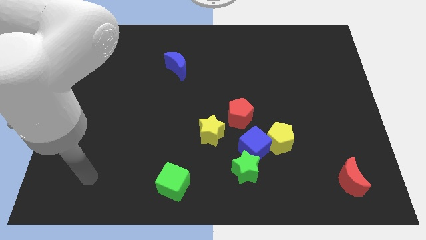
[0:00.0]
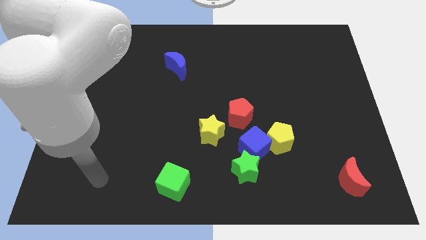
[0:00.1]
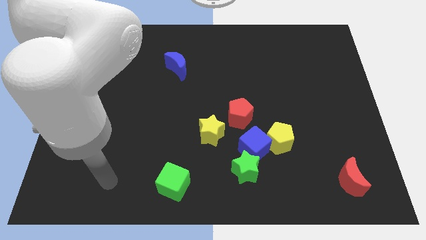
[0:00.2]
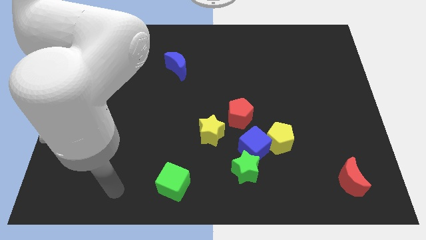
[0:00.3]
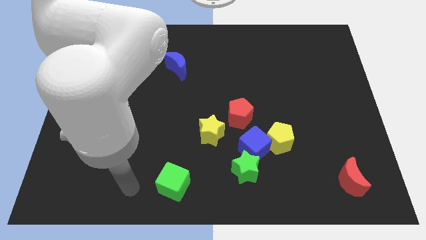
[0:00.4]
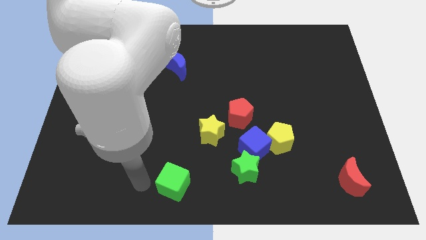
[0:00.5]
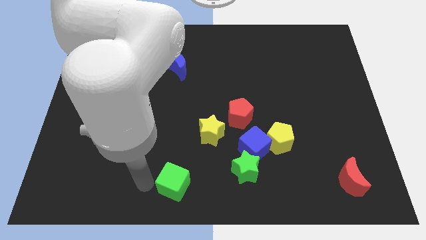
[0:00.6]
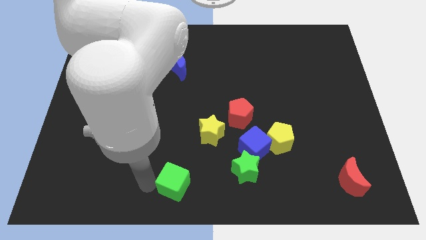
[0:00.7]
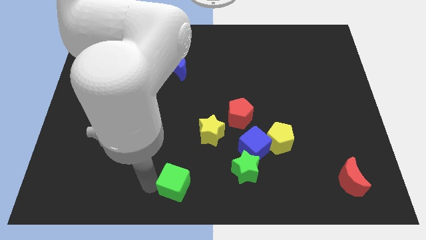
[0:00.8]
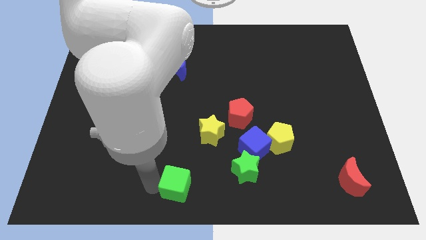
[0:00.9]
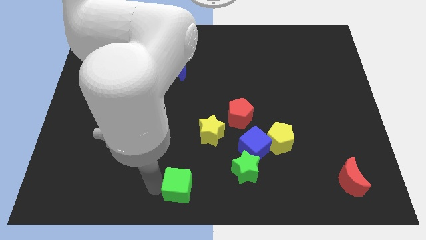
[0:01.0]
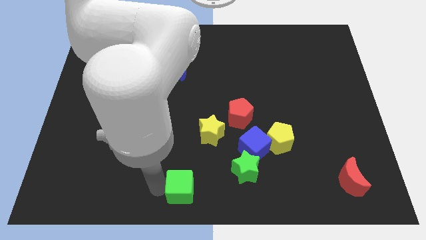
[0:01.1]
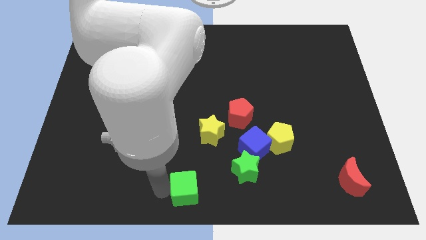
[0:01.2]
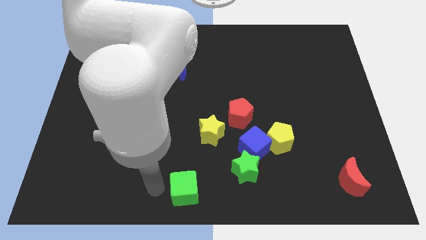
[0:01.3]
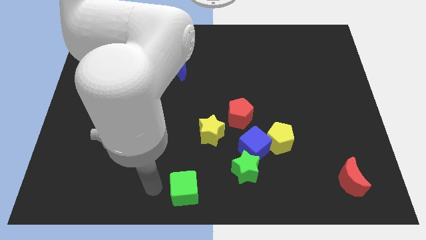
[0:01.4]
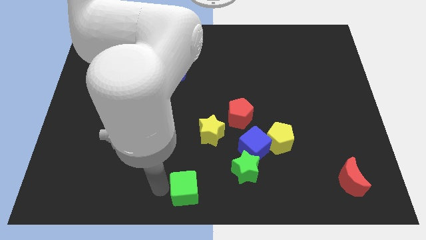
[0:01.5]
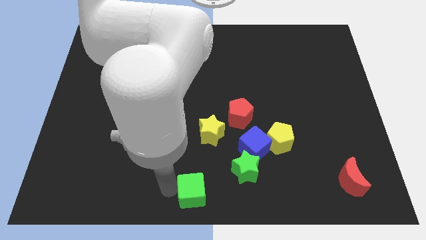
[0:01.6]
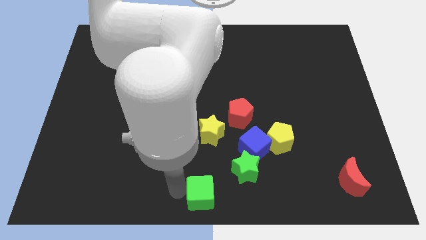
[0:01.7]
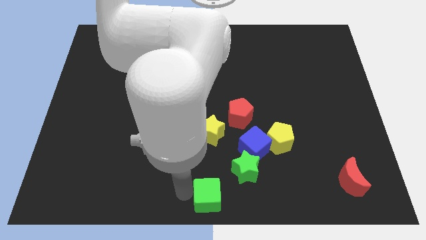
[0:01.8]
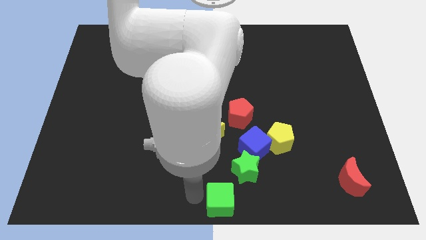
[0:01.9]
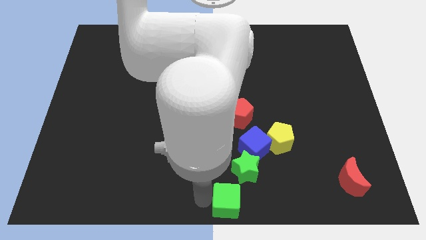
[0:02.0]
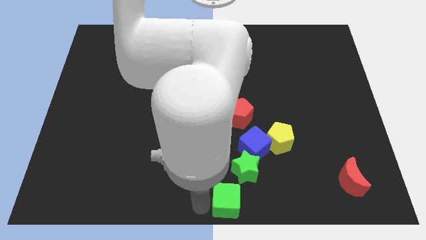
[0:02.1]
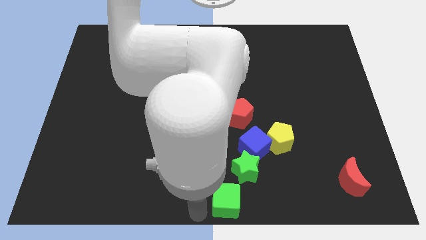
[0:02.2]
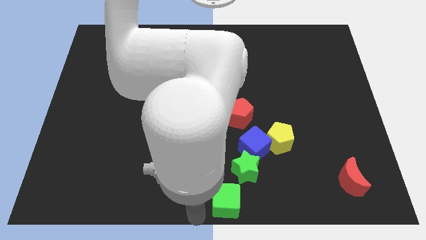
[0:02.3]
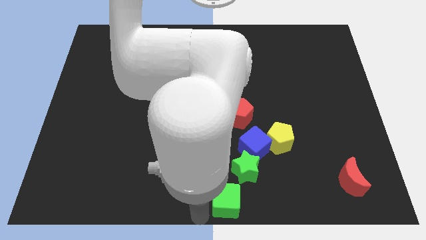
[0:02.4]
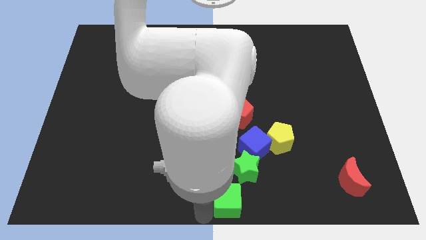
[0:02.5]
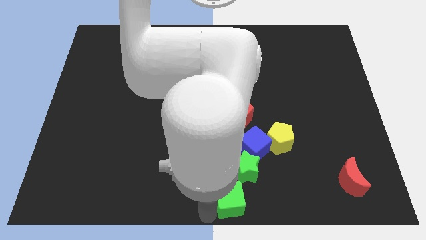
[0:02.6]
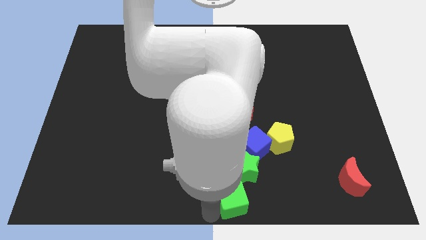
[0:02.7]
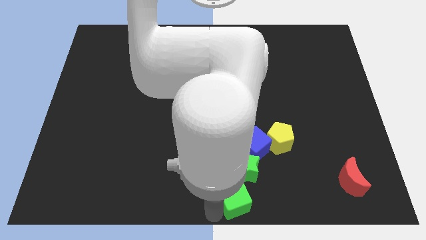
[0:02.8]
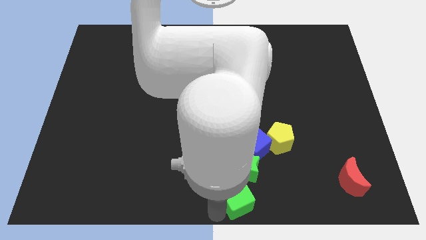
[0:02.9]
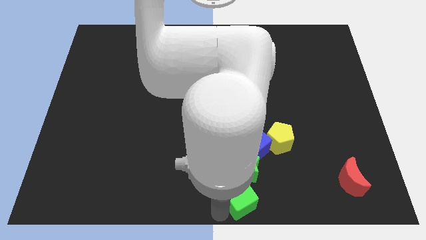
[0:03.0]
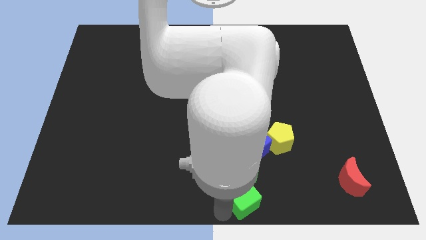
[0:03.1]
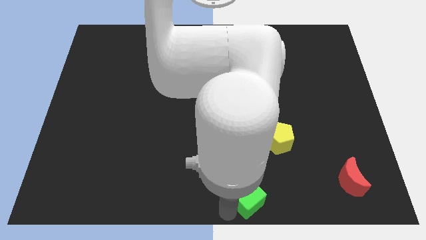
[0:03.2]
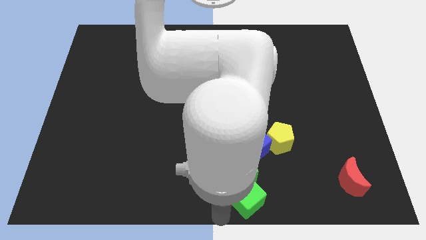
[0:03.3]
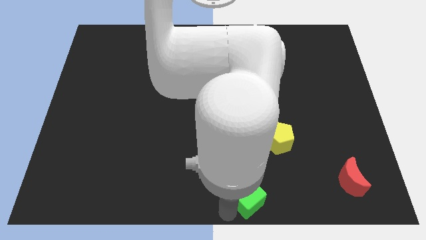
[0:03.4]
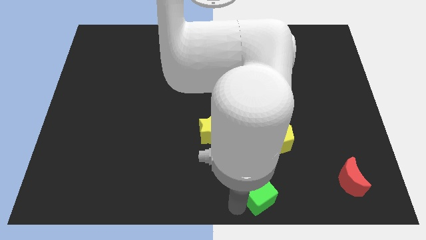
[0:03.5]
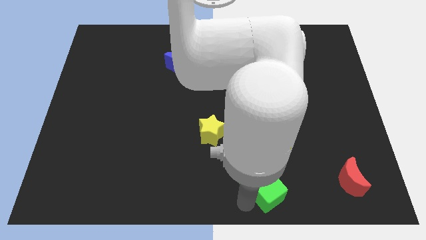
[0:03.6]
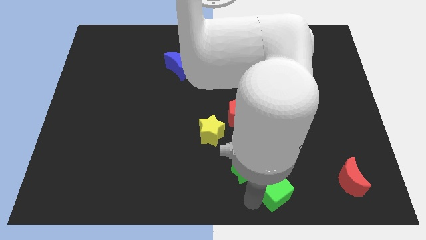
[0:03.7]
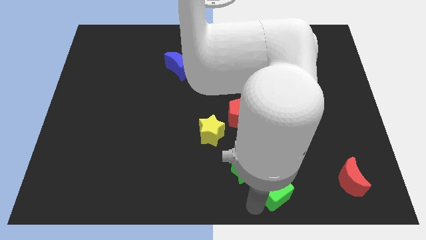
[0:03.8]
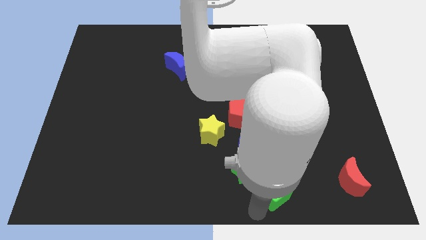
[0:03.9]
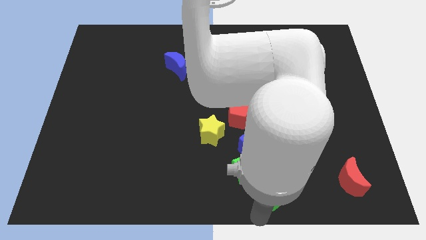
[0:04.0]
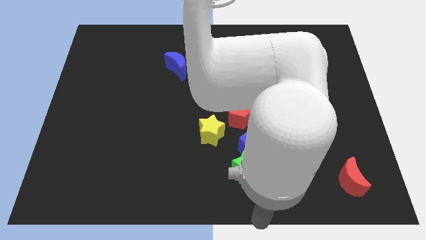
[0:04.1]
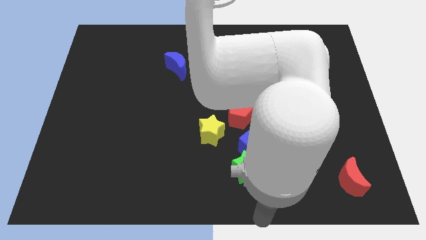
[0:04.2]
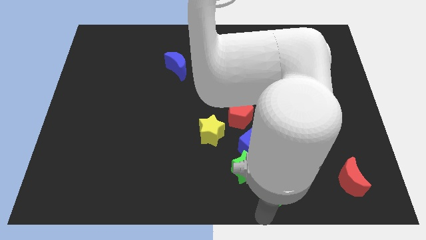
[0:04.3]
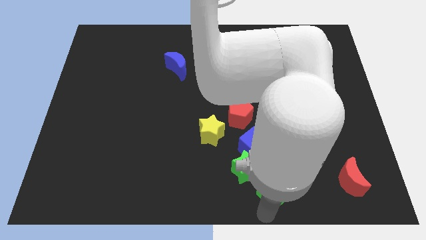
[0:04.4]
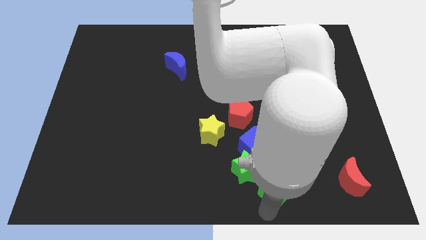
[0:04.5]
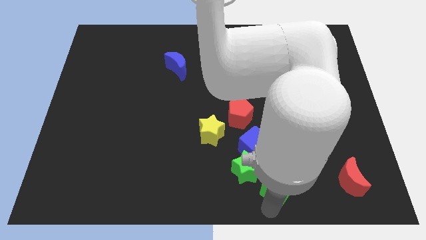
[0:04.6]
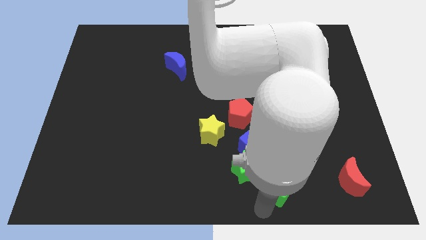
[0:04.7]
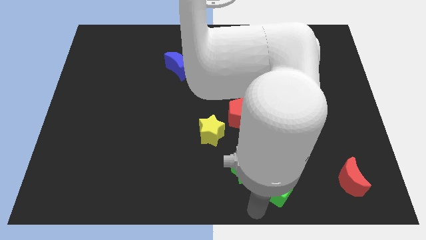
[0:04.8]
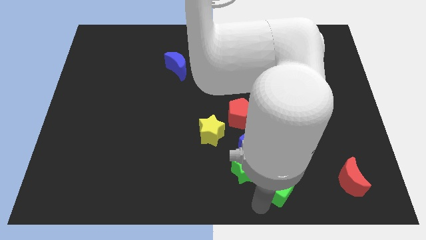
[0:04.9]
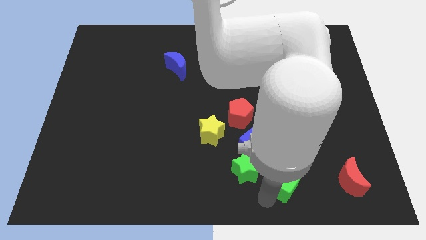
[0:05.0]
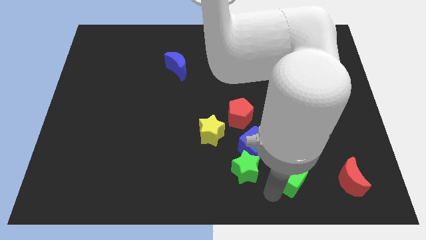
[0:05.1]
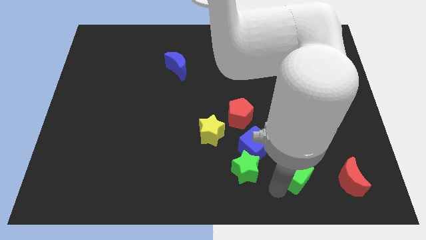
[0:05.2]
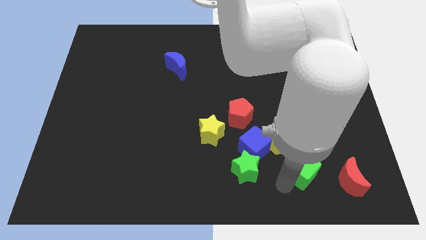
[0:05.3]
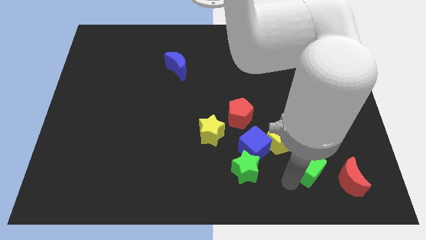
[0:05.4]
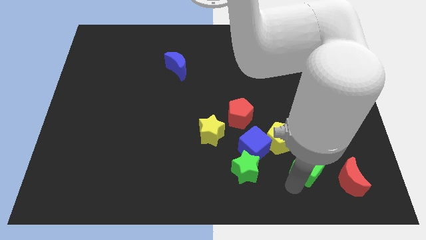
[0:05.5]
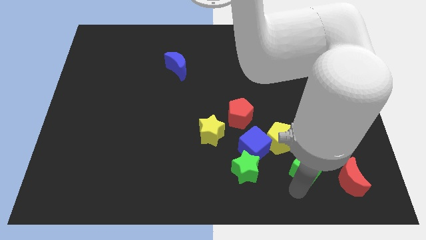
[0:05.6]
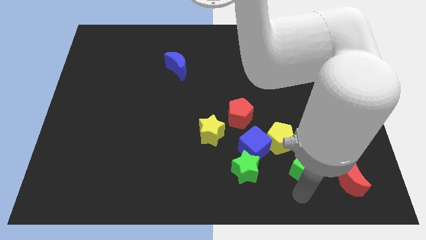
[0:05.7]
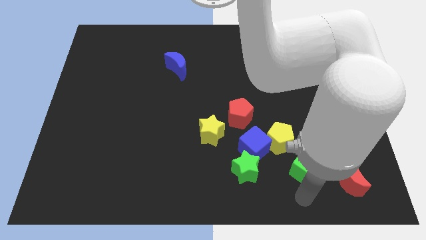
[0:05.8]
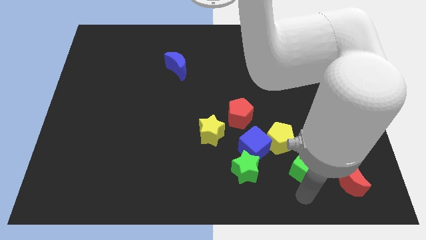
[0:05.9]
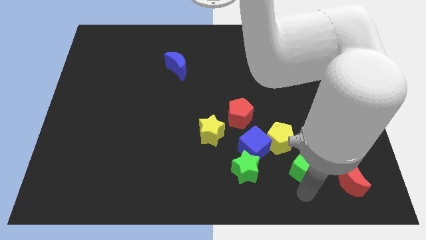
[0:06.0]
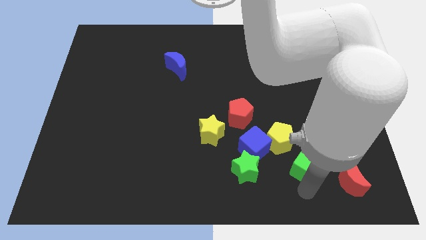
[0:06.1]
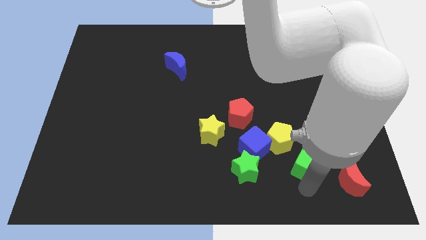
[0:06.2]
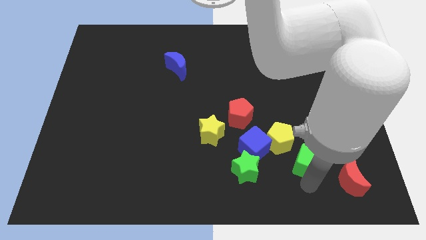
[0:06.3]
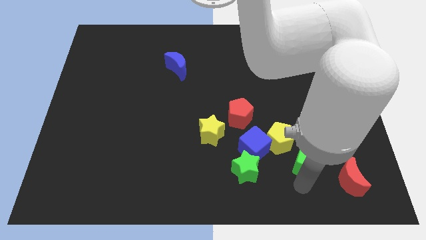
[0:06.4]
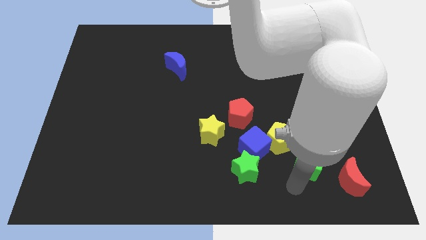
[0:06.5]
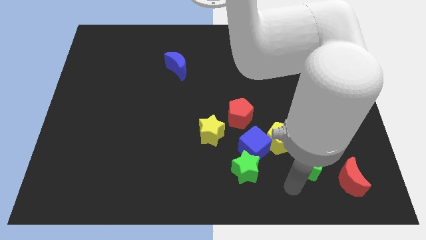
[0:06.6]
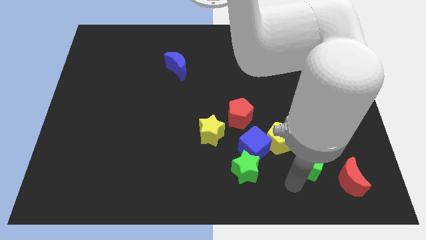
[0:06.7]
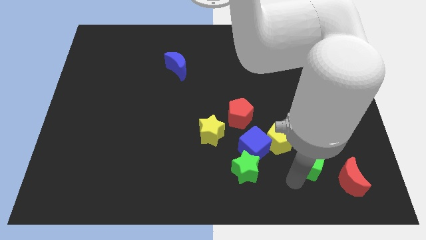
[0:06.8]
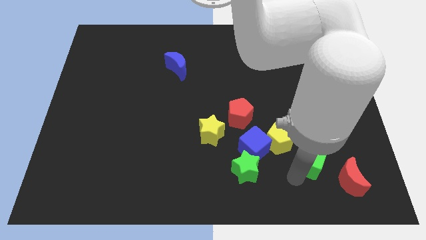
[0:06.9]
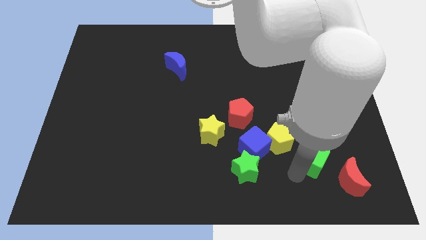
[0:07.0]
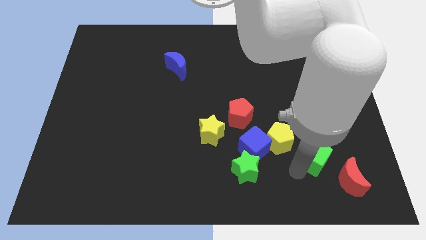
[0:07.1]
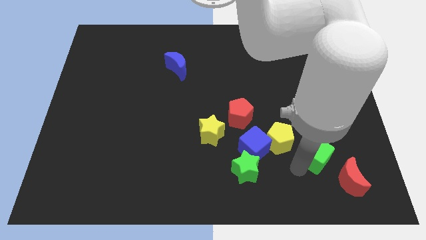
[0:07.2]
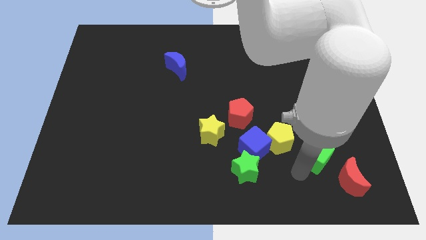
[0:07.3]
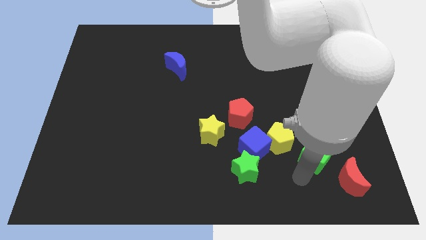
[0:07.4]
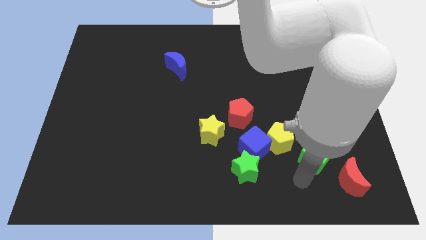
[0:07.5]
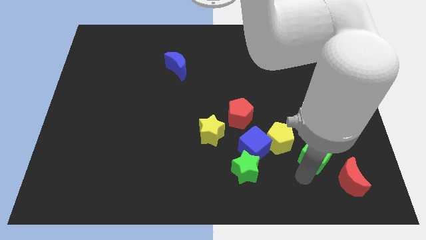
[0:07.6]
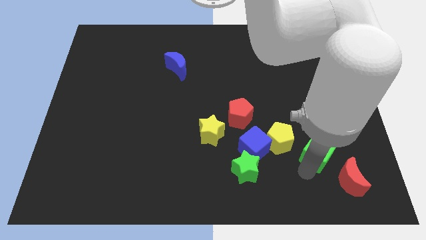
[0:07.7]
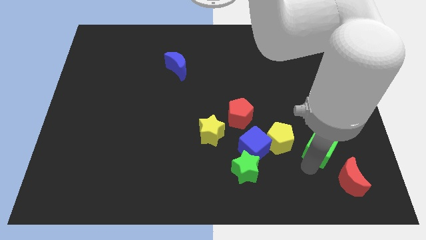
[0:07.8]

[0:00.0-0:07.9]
push the green cube to the top of the red moon
